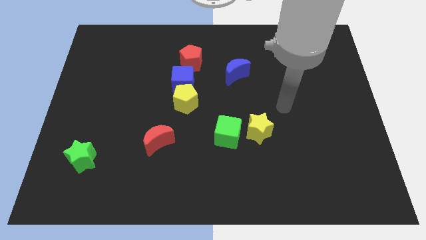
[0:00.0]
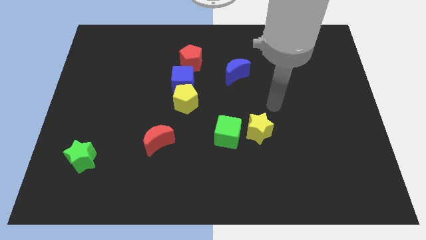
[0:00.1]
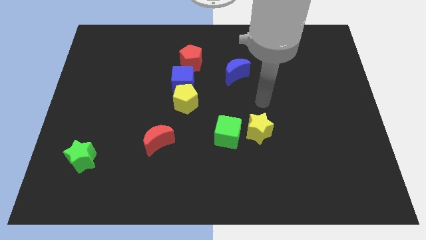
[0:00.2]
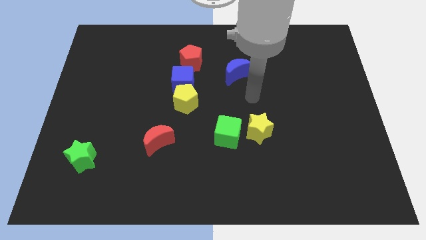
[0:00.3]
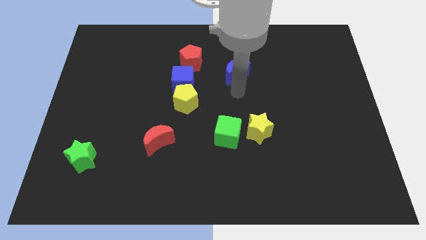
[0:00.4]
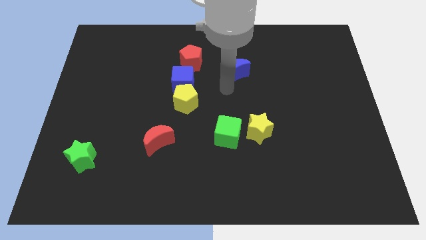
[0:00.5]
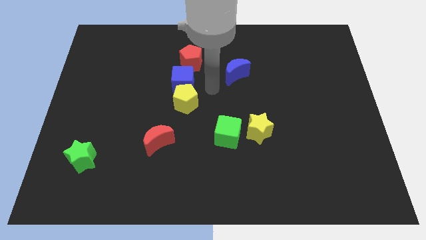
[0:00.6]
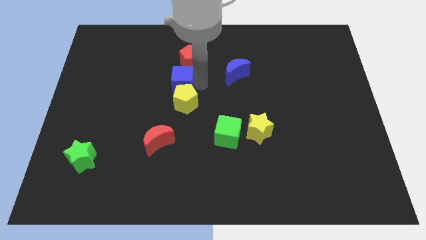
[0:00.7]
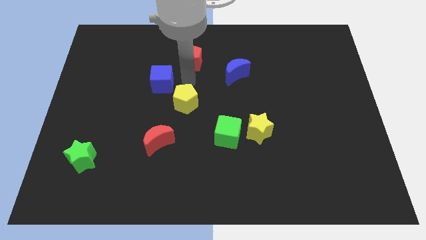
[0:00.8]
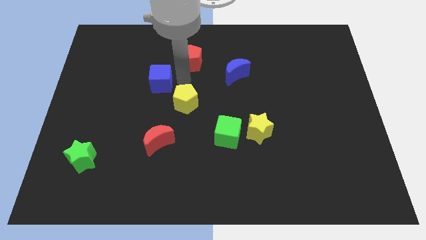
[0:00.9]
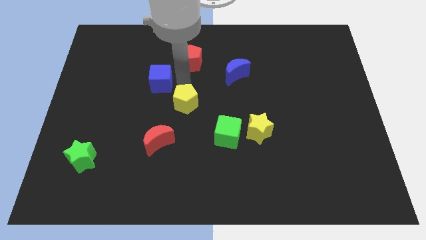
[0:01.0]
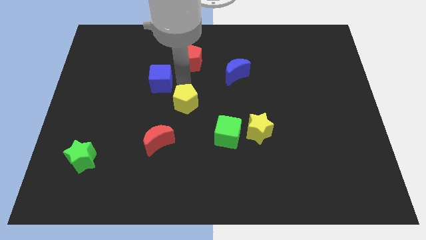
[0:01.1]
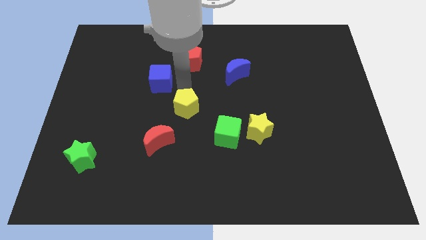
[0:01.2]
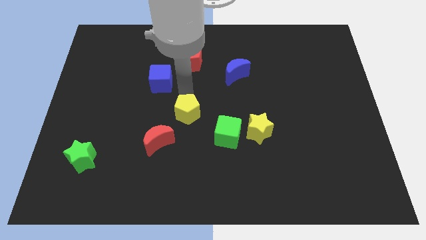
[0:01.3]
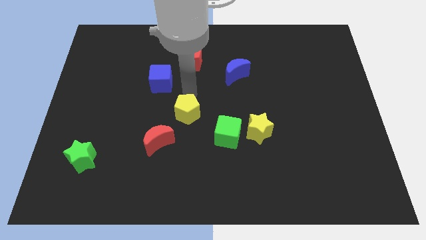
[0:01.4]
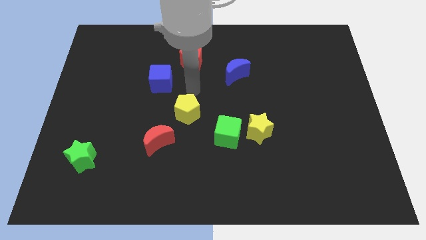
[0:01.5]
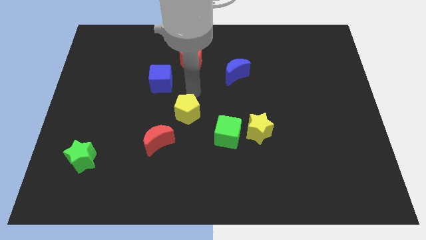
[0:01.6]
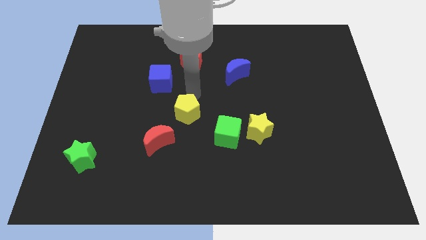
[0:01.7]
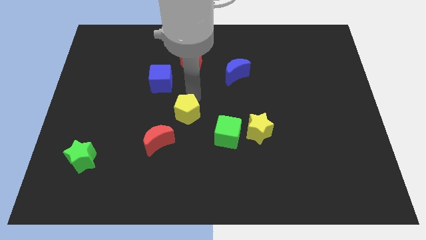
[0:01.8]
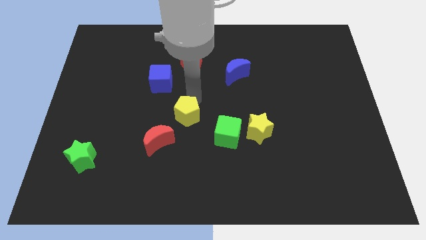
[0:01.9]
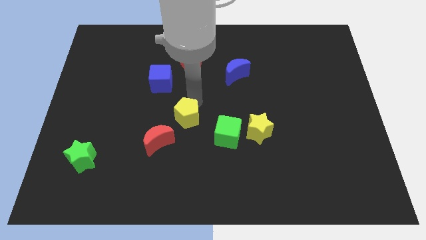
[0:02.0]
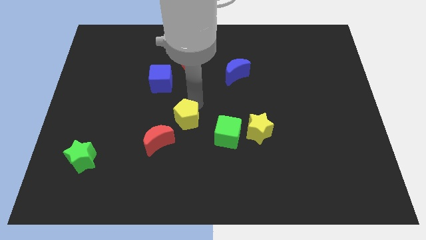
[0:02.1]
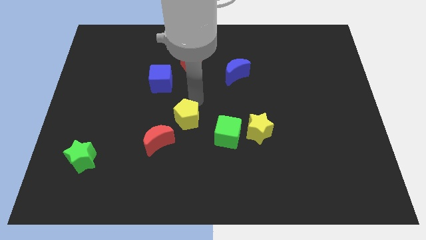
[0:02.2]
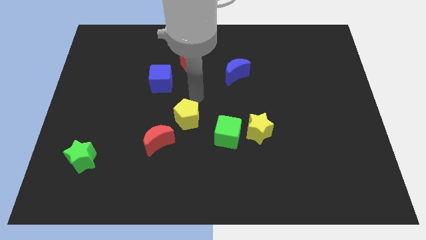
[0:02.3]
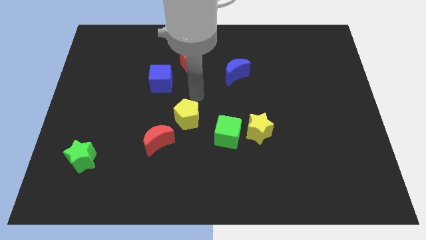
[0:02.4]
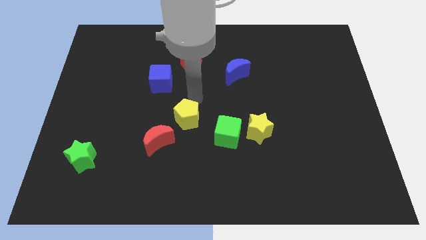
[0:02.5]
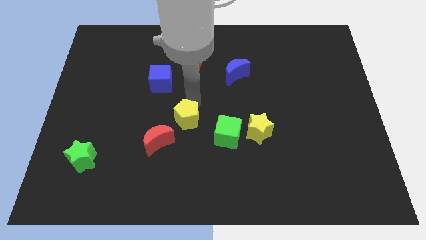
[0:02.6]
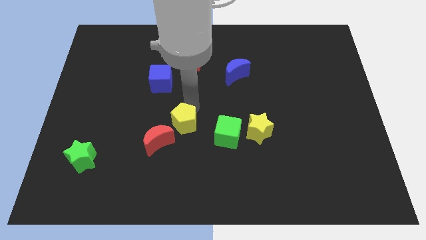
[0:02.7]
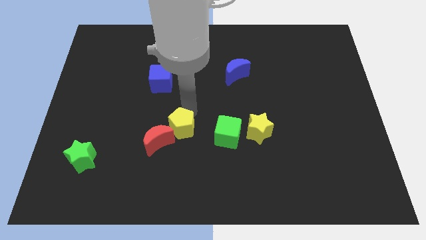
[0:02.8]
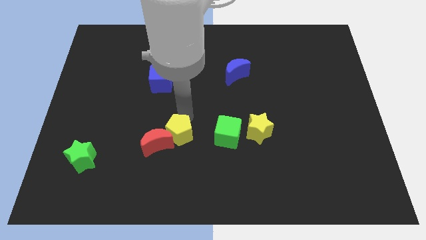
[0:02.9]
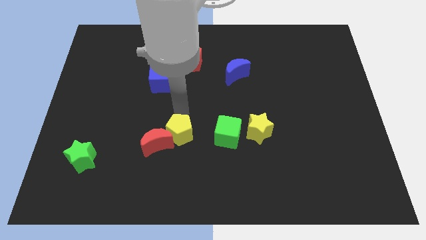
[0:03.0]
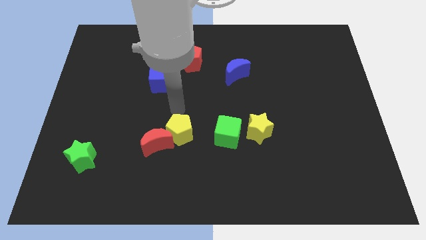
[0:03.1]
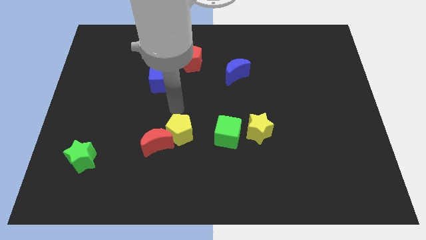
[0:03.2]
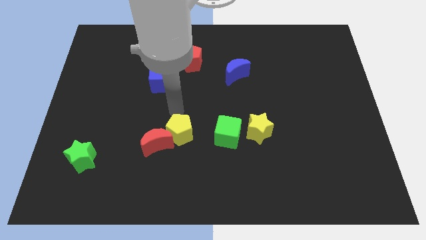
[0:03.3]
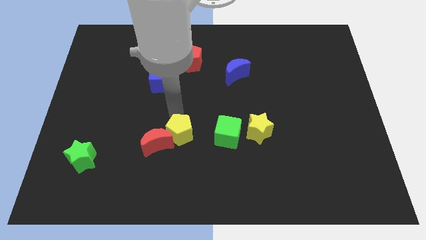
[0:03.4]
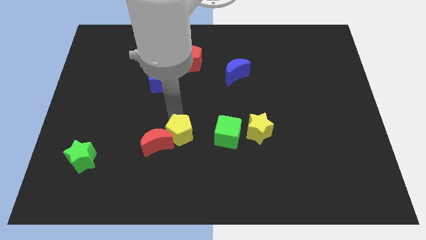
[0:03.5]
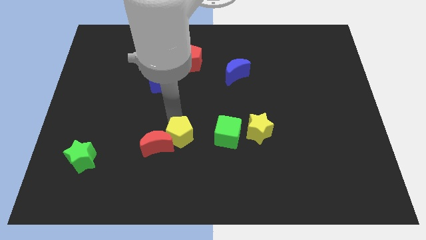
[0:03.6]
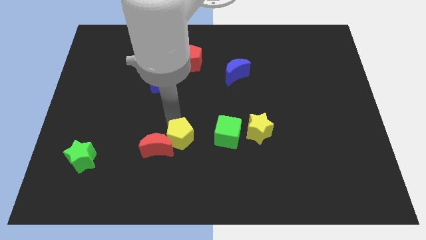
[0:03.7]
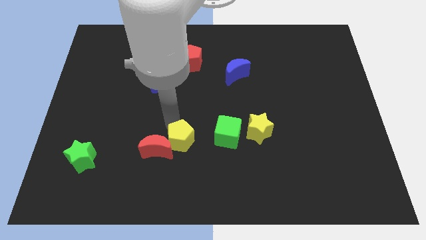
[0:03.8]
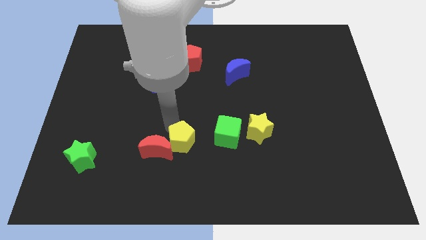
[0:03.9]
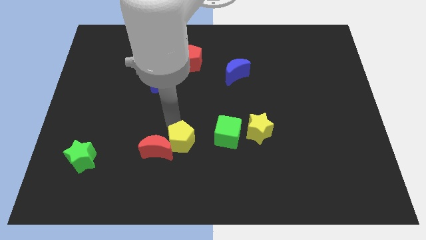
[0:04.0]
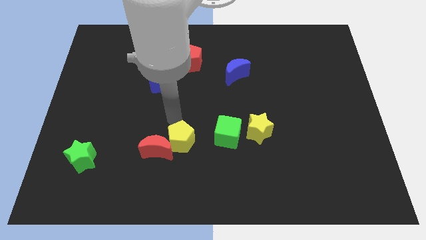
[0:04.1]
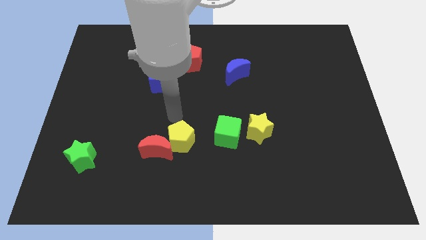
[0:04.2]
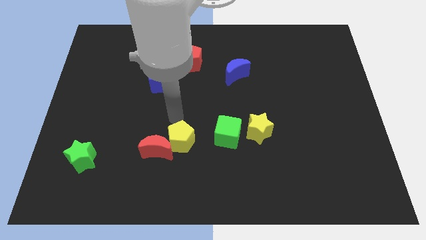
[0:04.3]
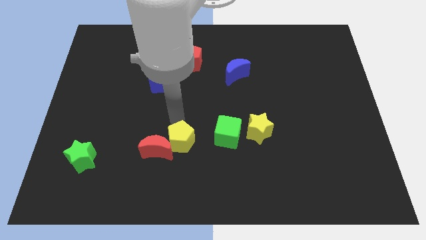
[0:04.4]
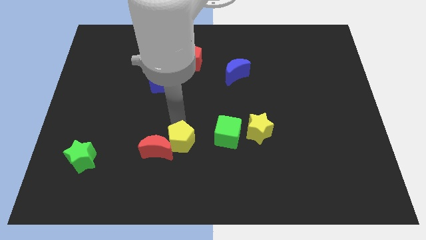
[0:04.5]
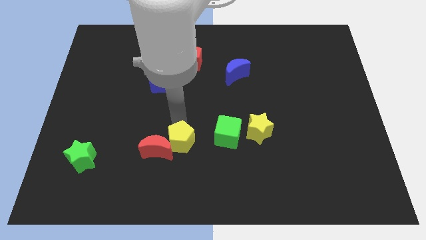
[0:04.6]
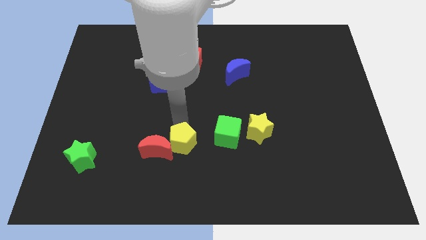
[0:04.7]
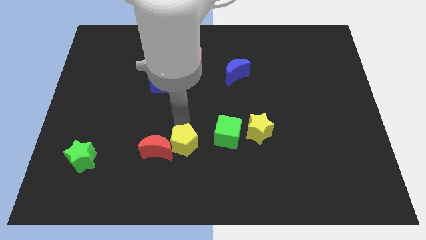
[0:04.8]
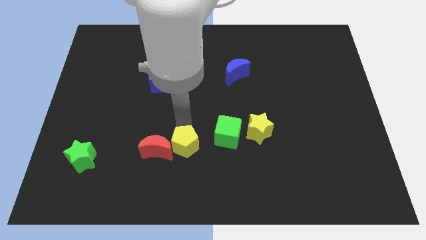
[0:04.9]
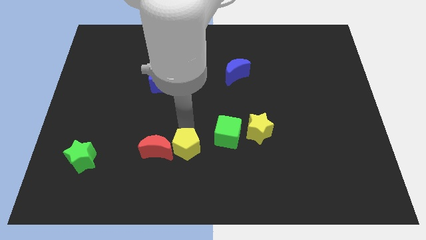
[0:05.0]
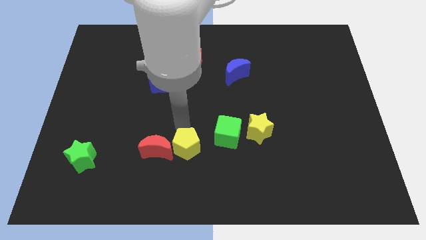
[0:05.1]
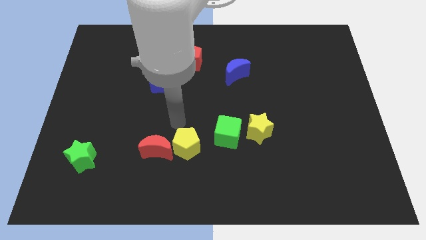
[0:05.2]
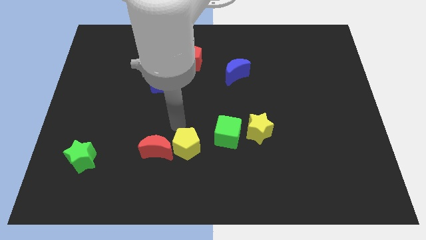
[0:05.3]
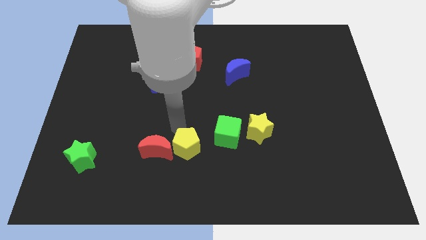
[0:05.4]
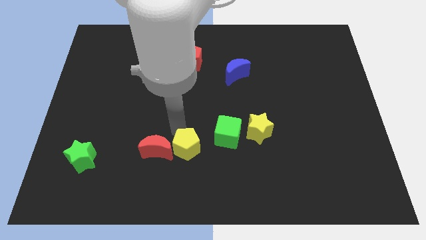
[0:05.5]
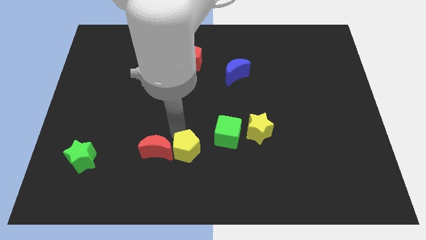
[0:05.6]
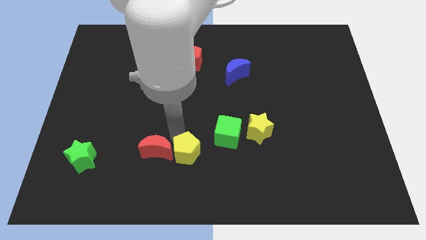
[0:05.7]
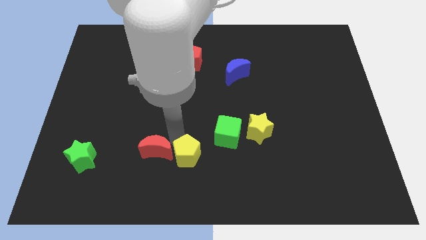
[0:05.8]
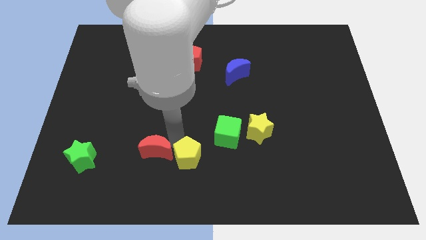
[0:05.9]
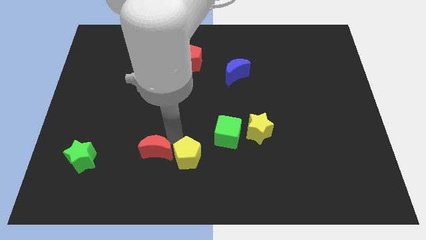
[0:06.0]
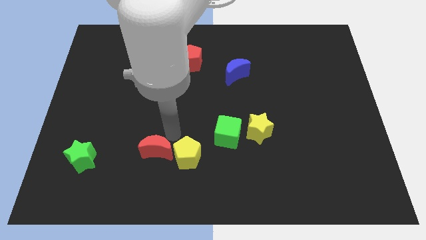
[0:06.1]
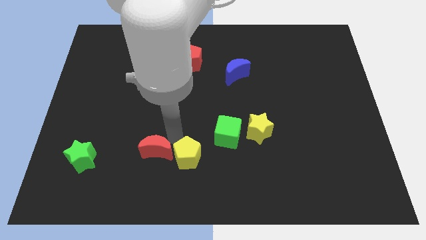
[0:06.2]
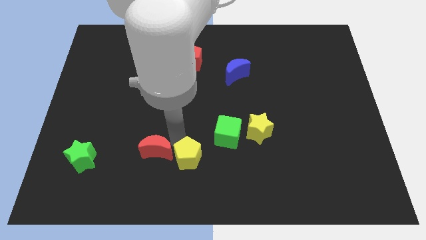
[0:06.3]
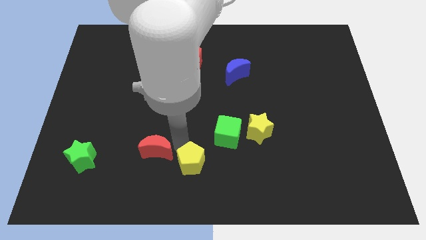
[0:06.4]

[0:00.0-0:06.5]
push the yellow pentagon to the bottom side

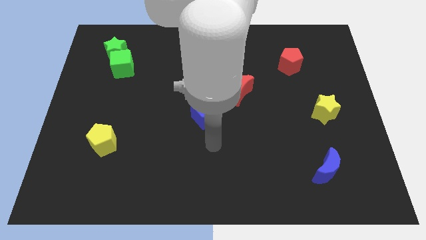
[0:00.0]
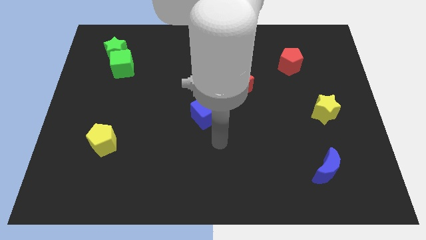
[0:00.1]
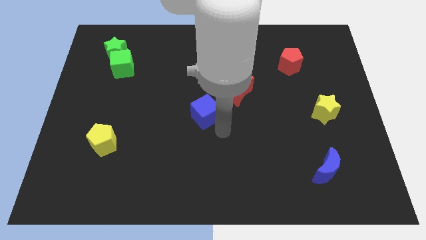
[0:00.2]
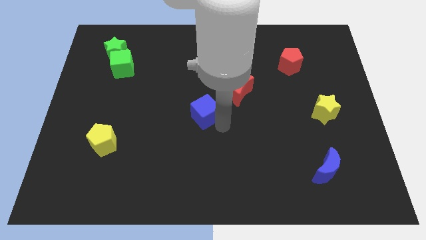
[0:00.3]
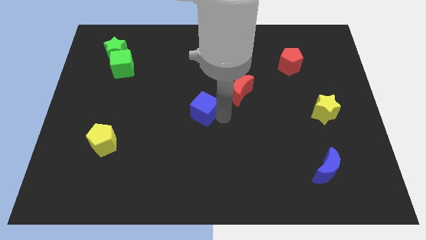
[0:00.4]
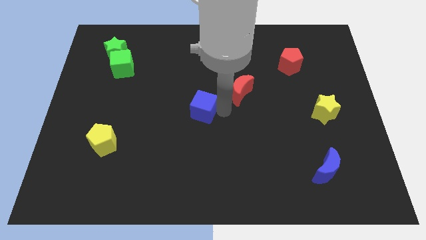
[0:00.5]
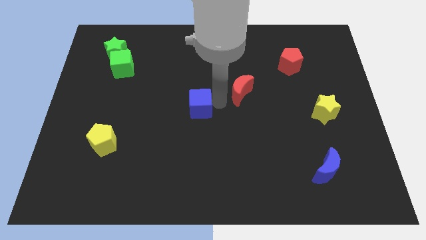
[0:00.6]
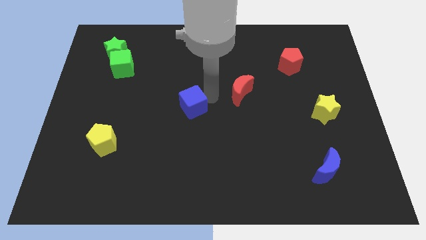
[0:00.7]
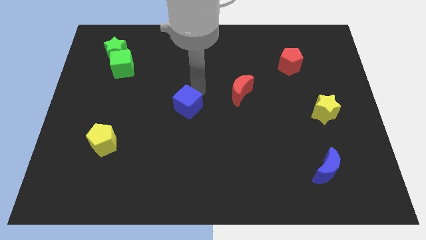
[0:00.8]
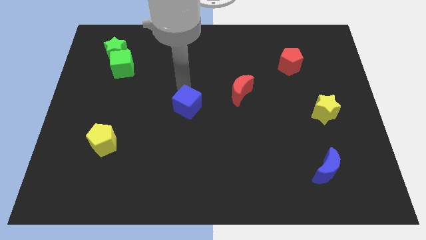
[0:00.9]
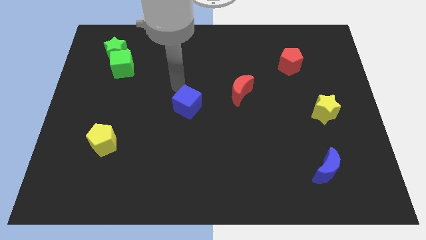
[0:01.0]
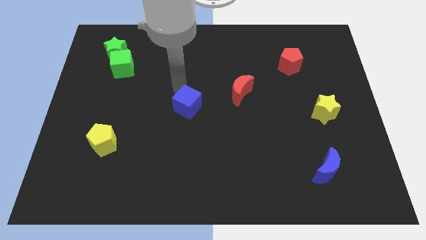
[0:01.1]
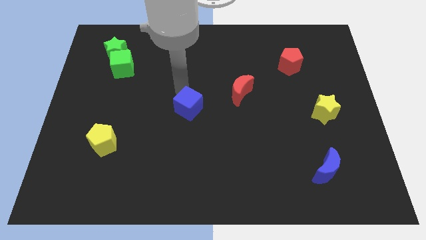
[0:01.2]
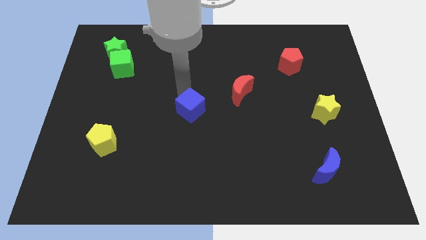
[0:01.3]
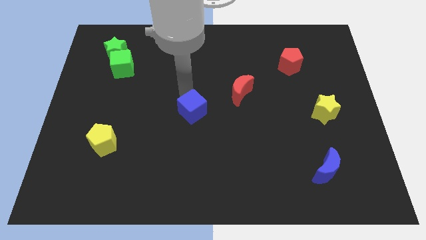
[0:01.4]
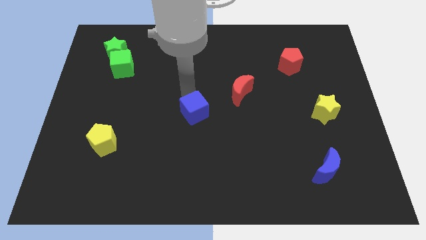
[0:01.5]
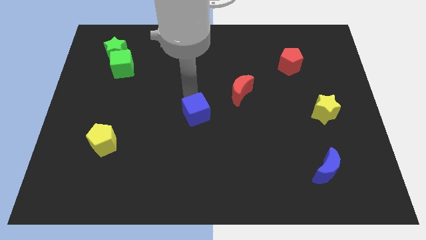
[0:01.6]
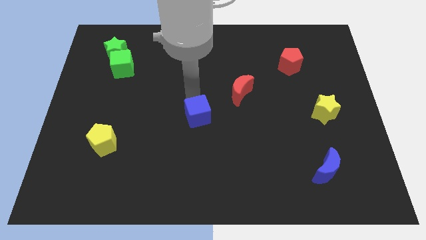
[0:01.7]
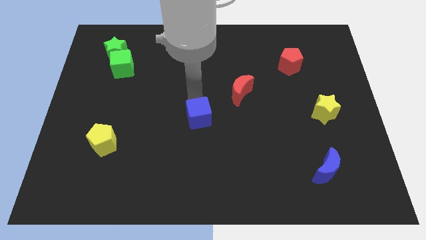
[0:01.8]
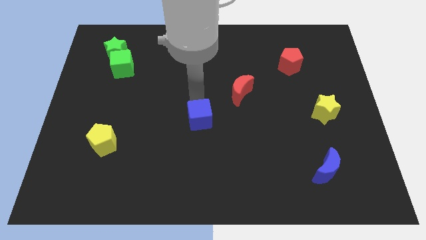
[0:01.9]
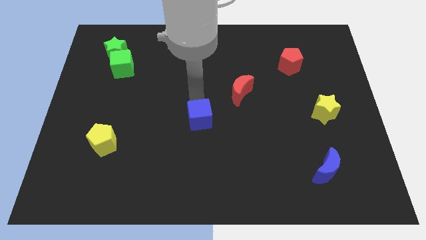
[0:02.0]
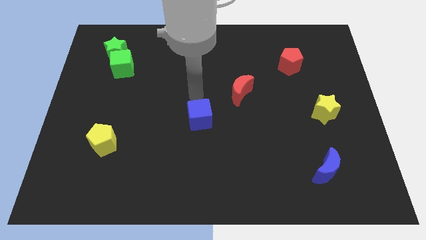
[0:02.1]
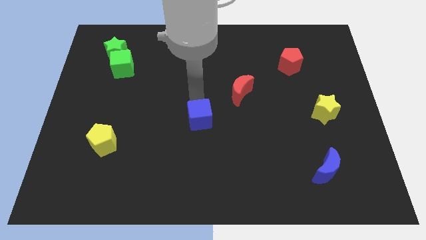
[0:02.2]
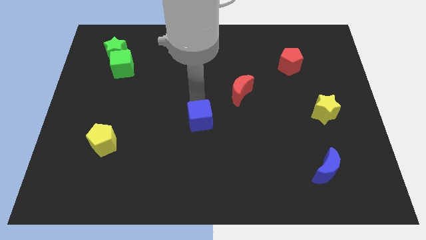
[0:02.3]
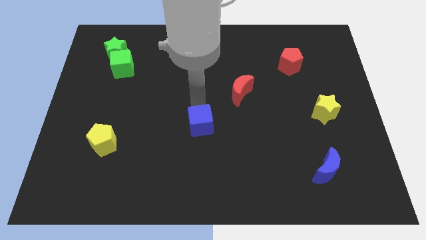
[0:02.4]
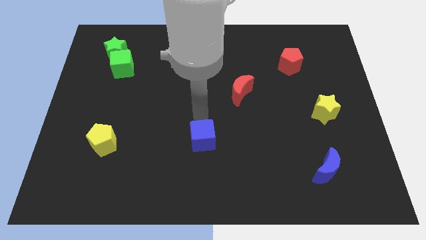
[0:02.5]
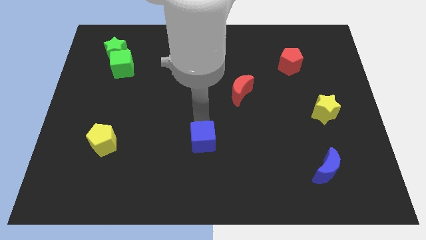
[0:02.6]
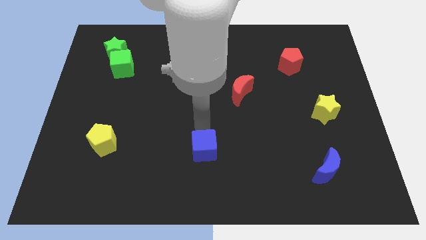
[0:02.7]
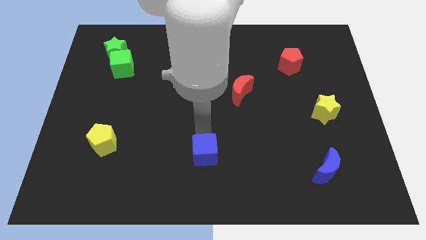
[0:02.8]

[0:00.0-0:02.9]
put the blue cube to the bottom side
